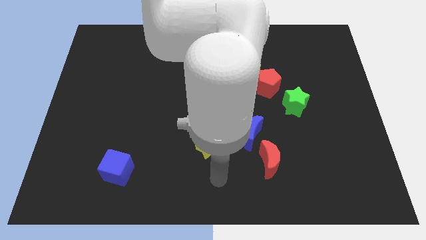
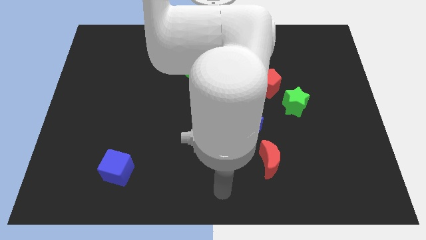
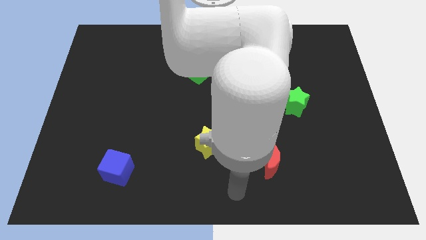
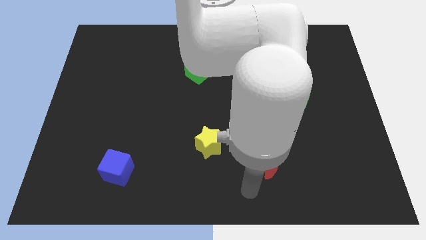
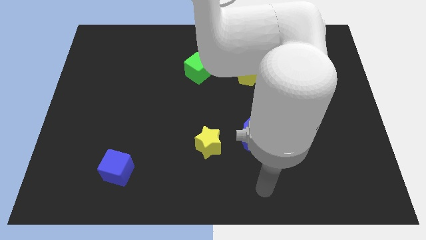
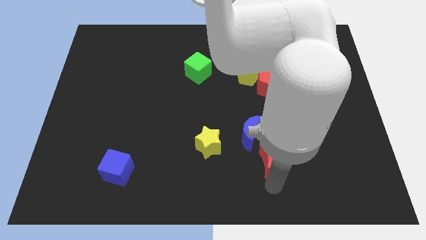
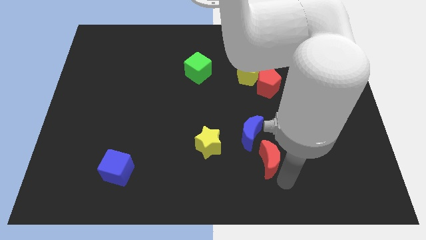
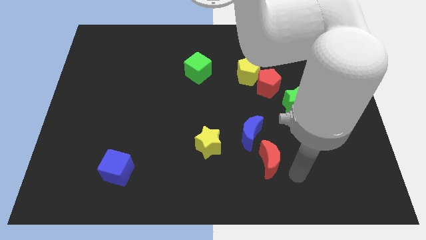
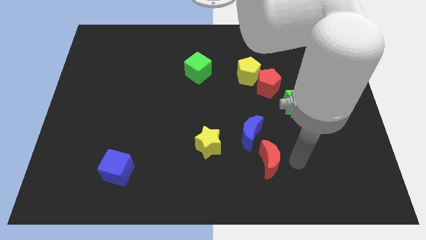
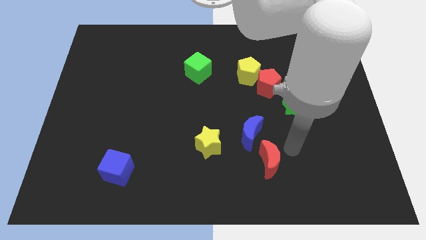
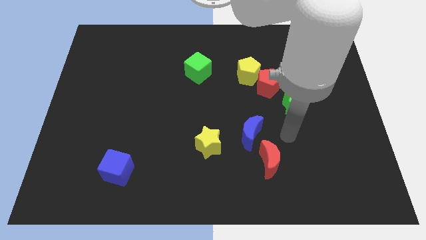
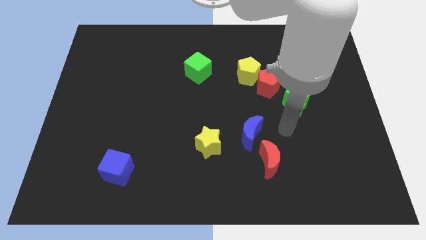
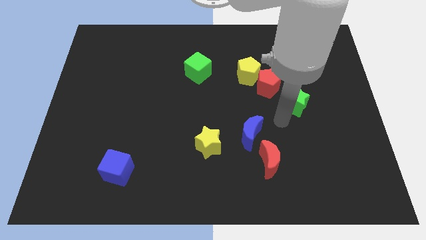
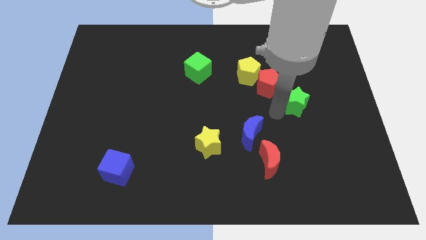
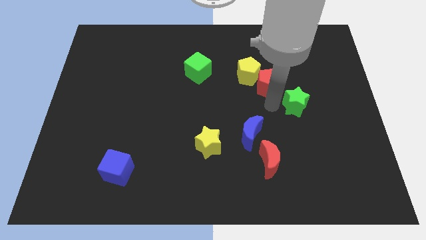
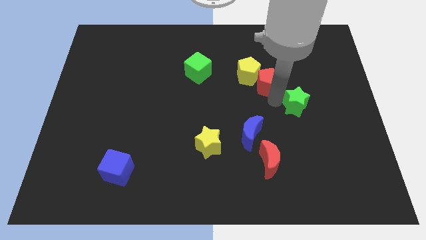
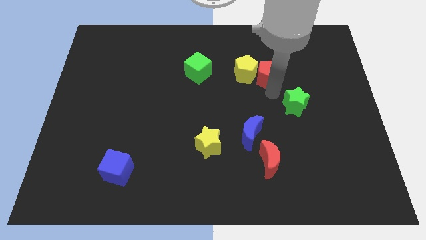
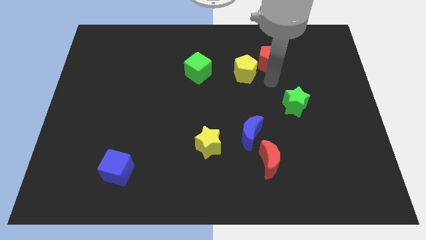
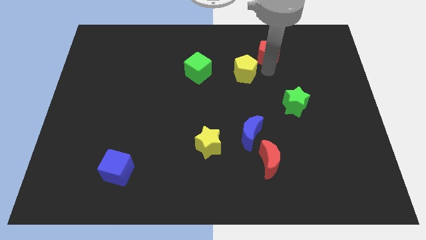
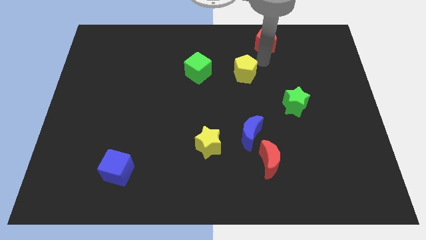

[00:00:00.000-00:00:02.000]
move the yellow pentagon away from the red pentagon

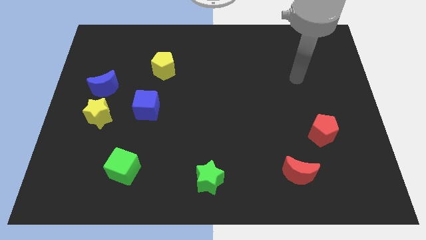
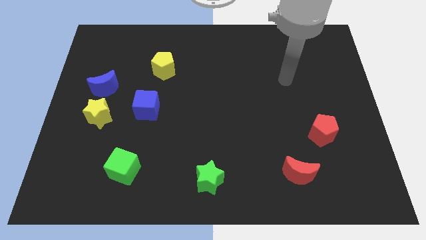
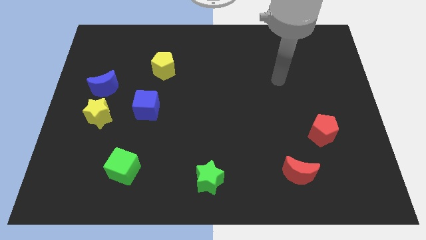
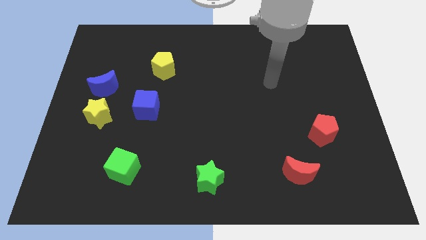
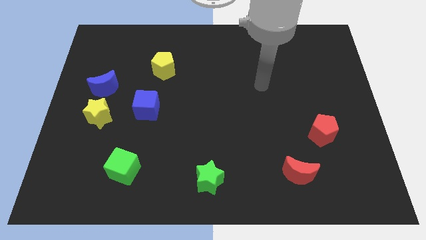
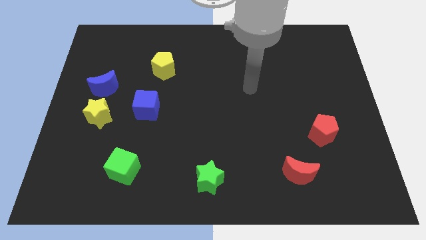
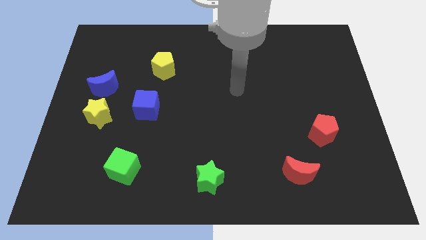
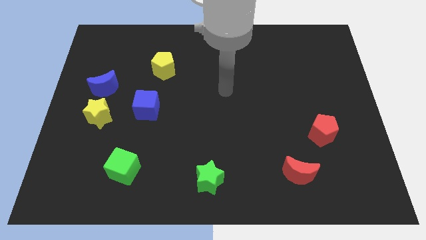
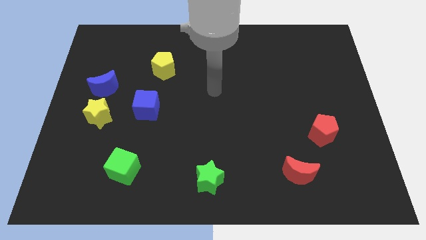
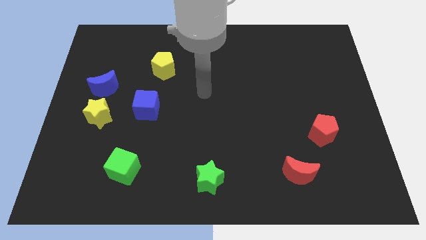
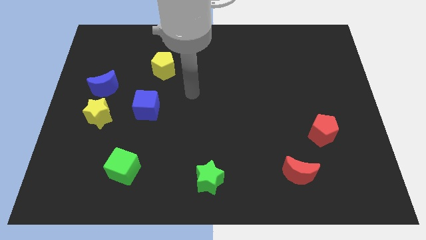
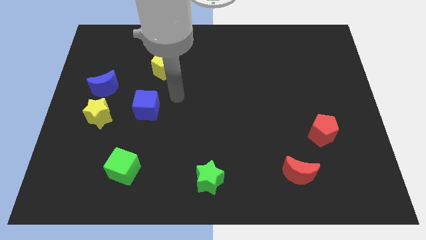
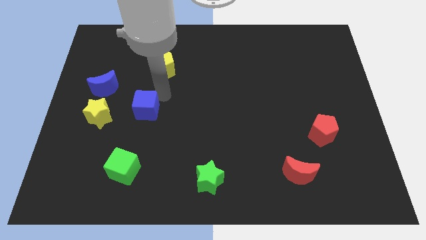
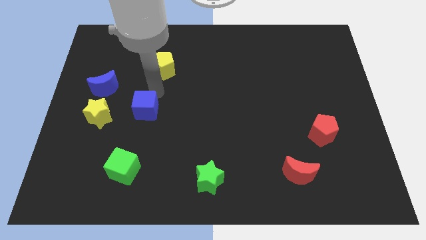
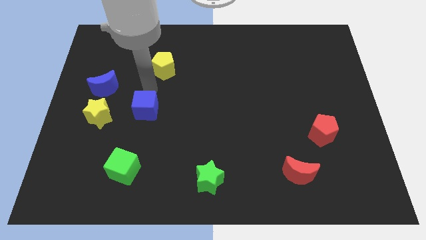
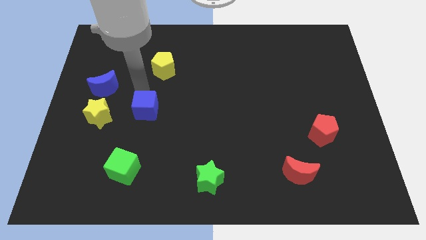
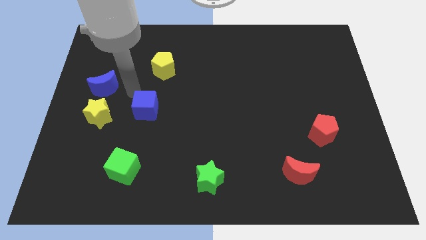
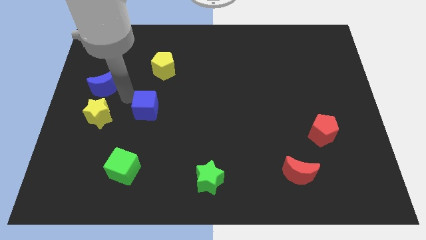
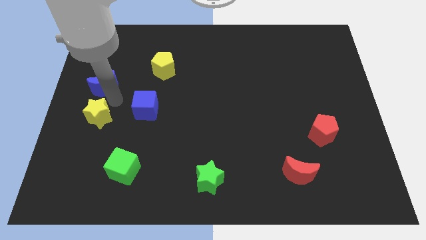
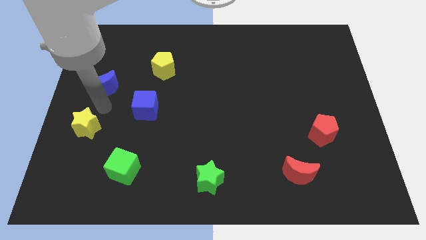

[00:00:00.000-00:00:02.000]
pull the blue moon apart from the yellow star

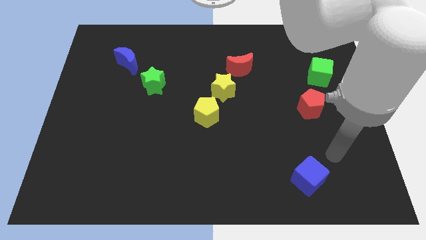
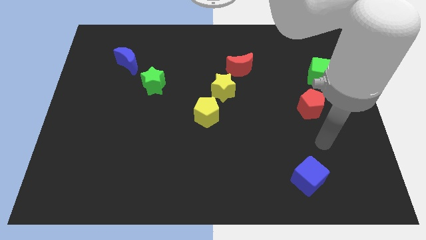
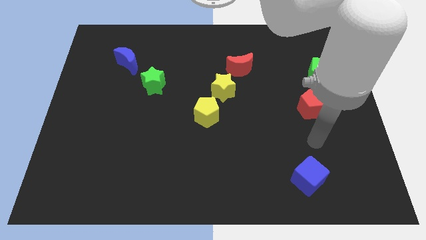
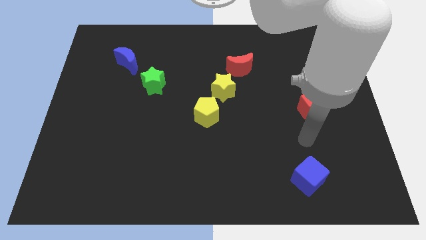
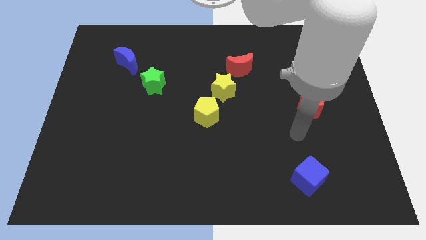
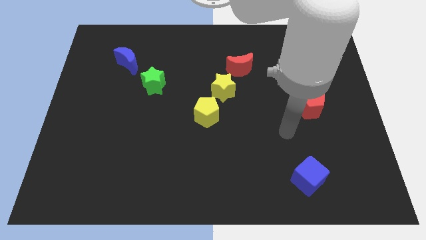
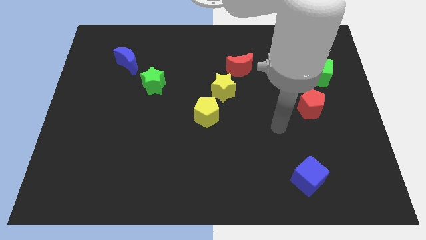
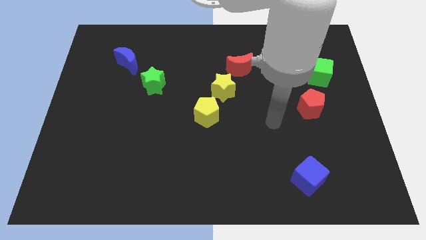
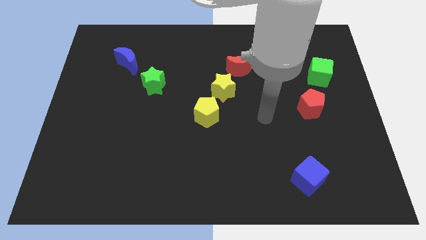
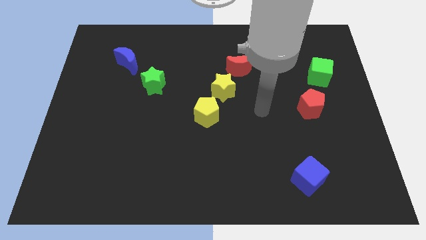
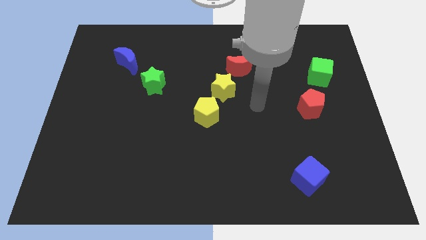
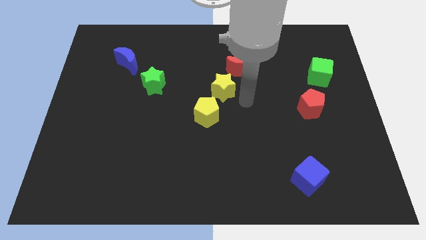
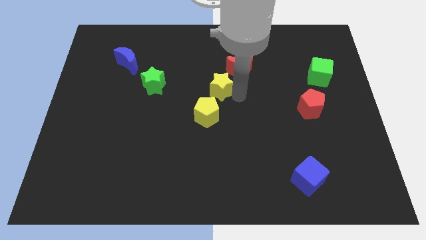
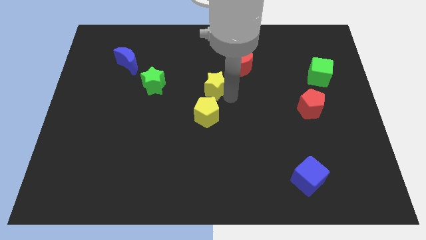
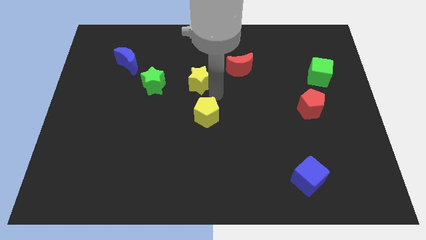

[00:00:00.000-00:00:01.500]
pull the yellow pentagon apart from the yellow star

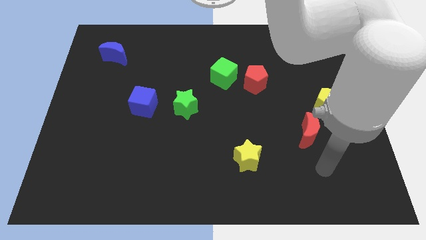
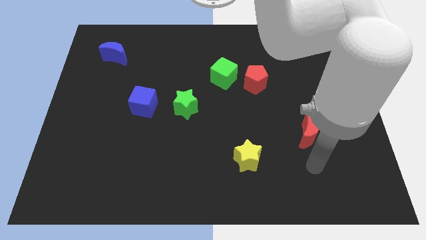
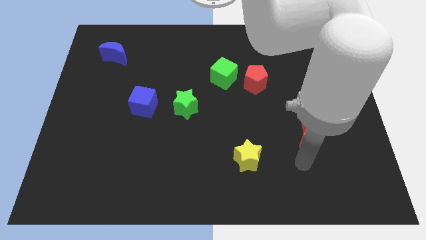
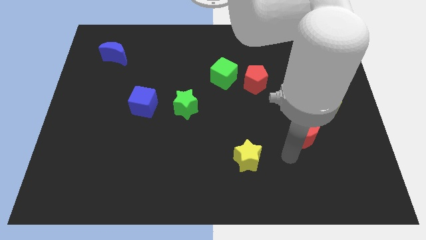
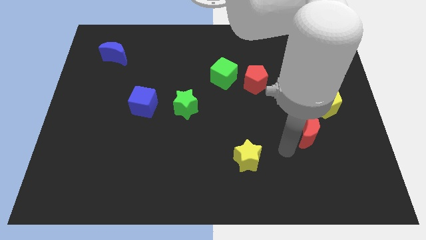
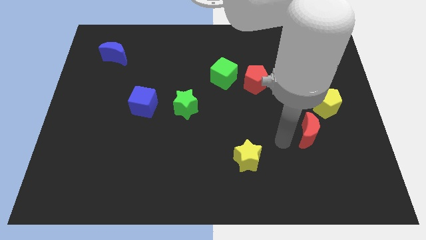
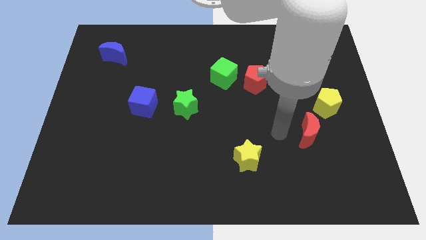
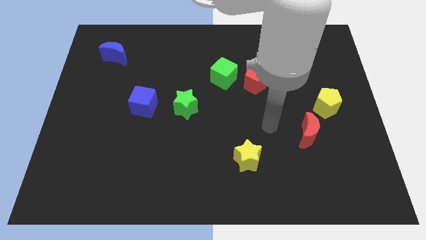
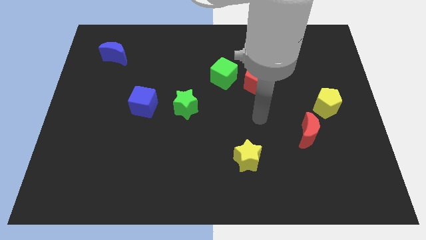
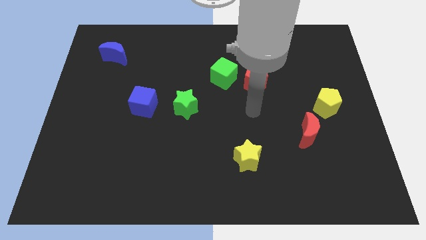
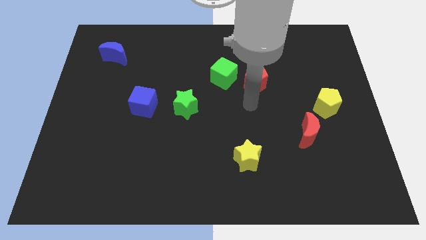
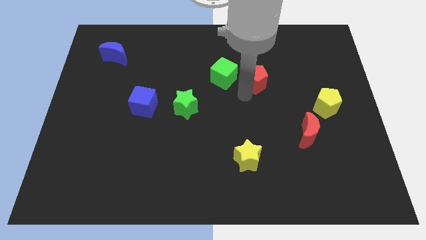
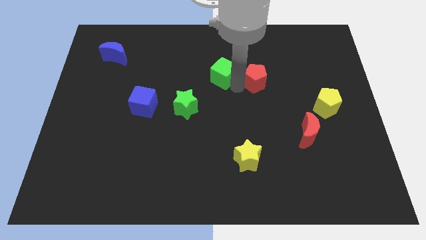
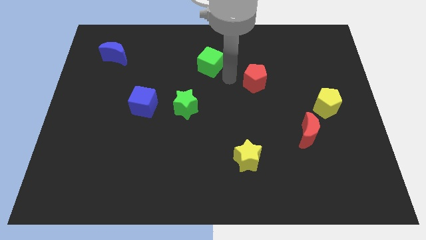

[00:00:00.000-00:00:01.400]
separate the red pentagon from the green cube

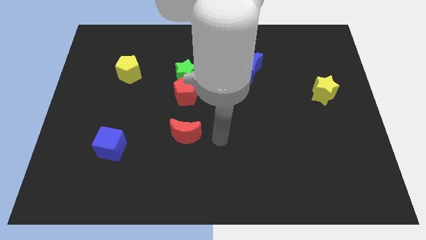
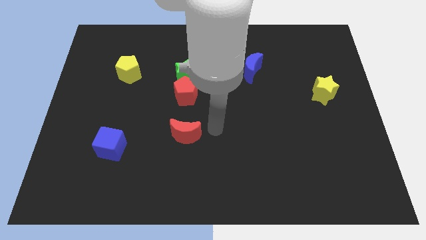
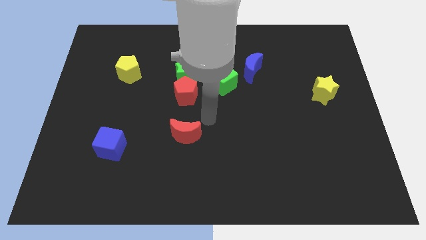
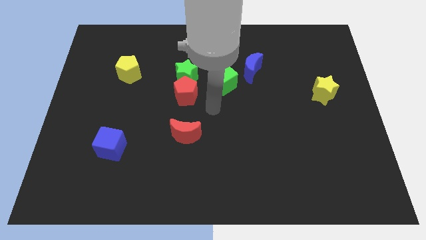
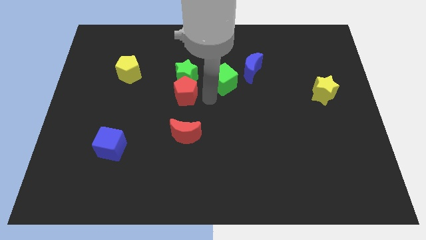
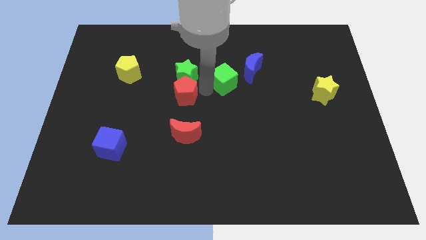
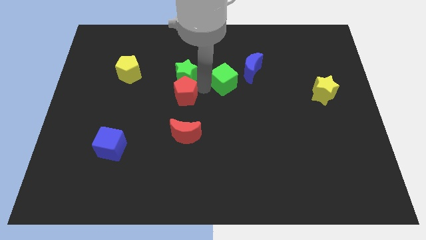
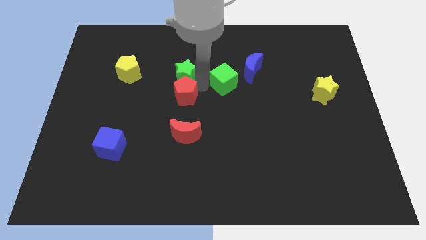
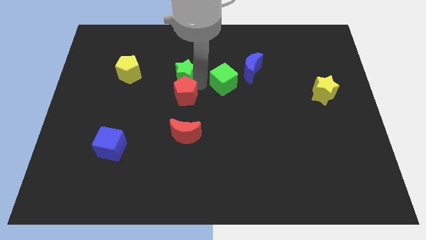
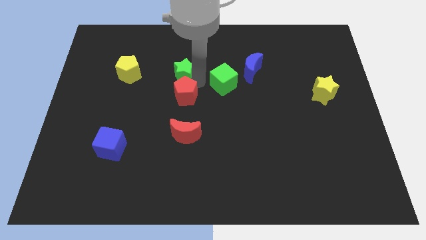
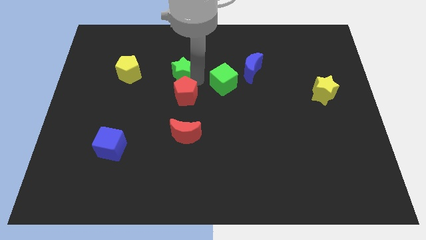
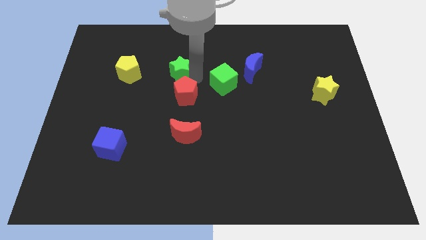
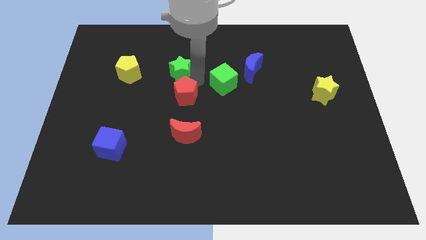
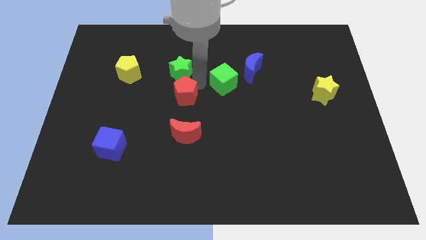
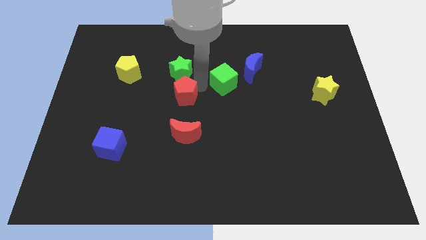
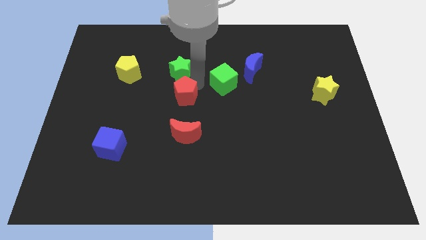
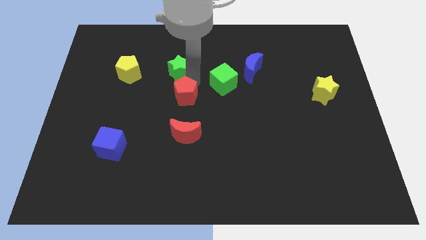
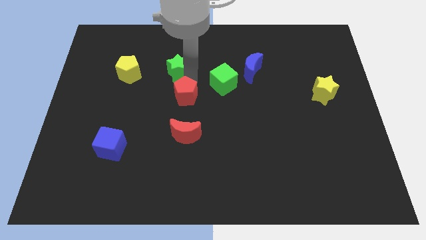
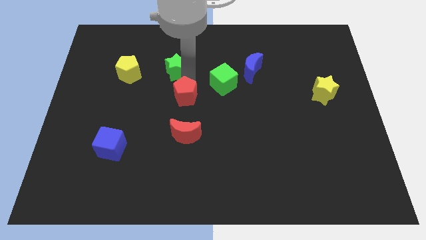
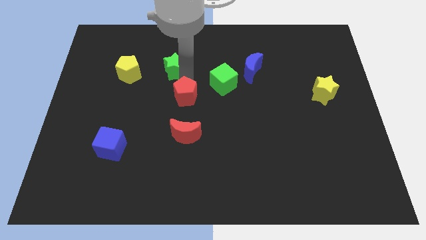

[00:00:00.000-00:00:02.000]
pull the green star apart from the red pentagon and green cube

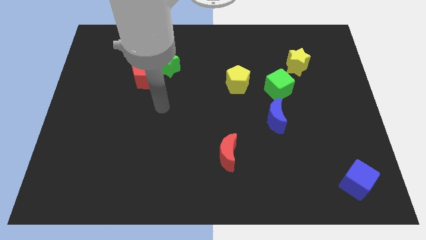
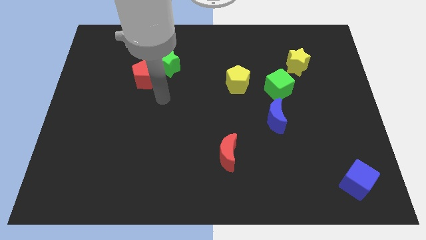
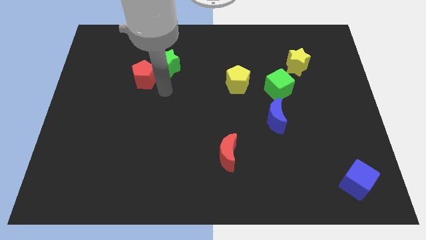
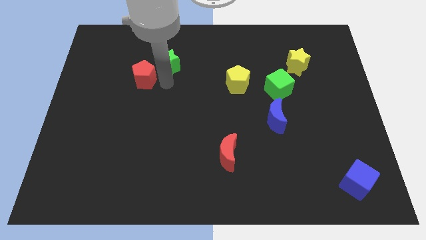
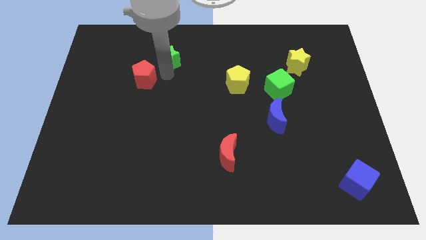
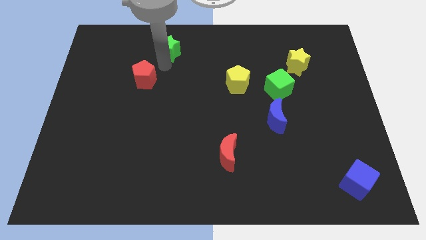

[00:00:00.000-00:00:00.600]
move the red pentagon away from the green star
